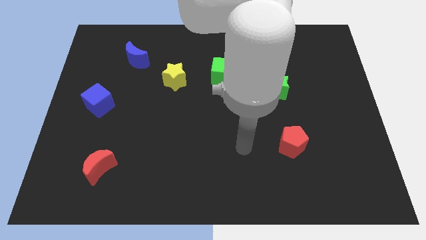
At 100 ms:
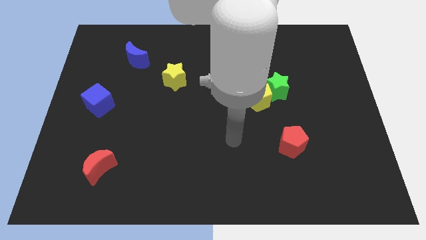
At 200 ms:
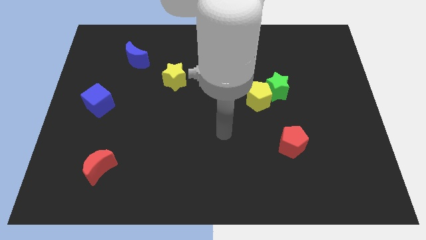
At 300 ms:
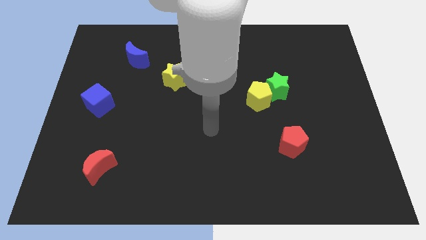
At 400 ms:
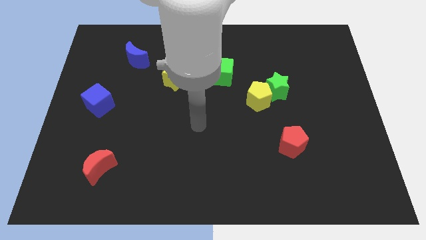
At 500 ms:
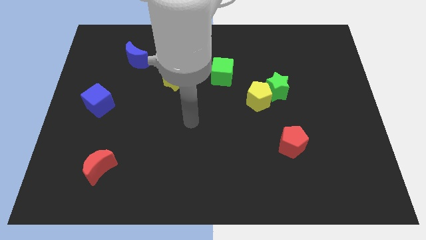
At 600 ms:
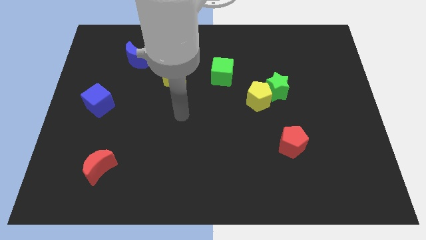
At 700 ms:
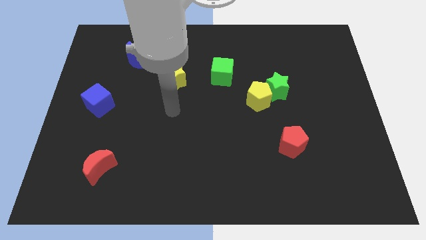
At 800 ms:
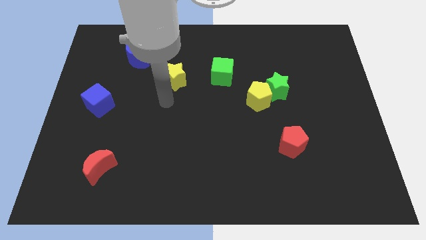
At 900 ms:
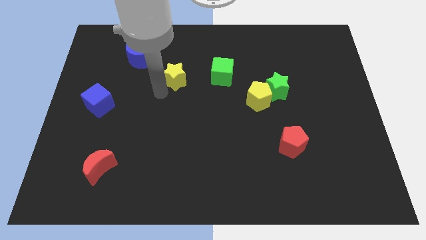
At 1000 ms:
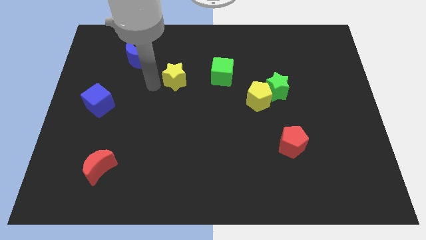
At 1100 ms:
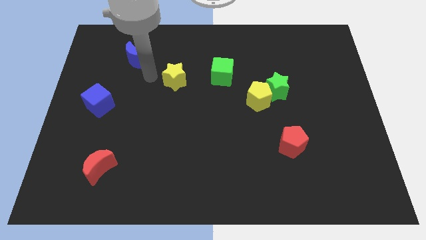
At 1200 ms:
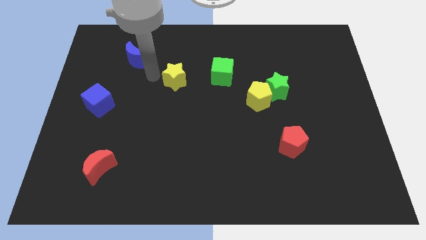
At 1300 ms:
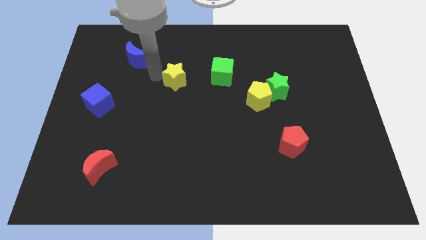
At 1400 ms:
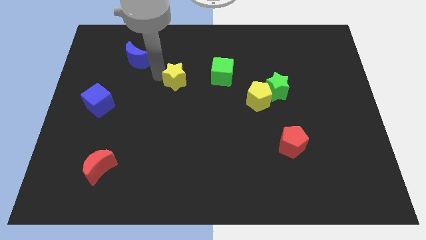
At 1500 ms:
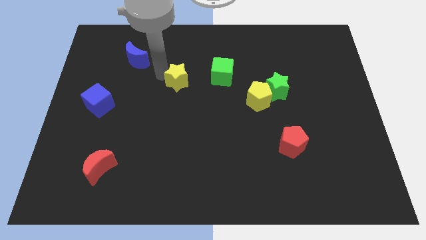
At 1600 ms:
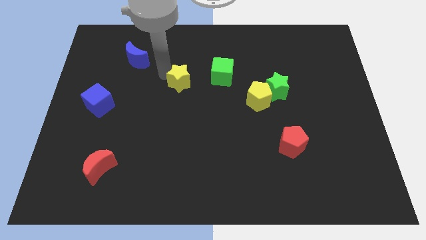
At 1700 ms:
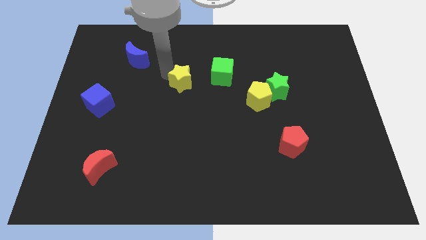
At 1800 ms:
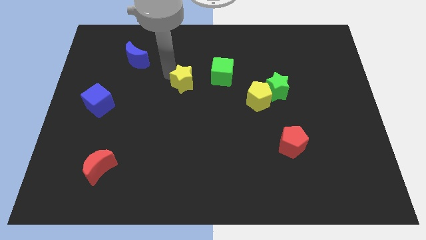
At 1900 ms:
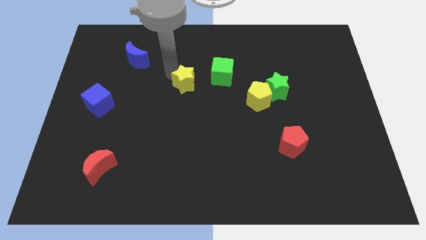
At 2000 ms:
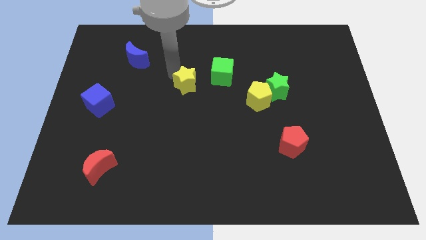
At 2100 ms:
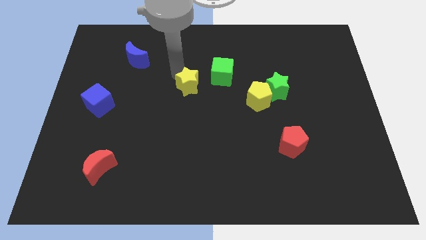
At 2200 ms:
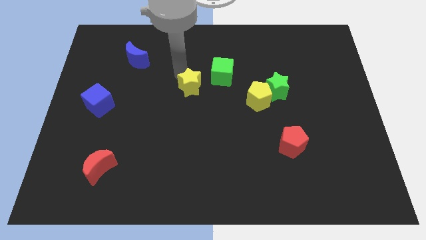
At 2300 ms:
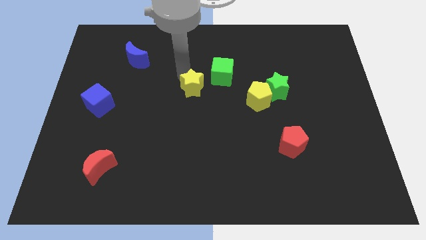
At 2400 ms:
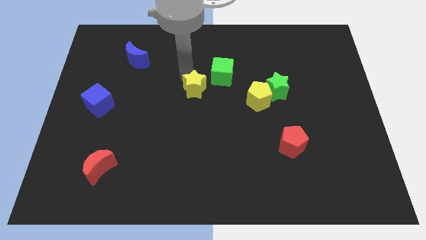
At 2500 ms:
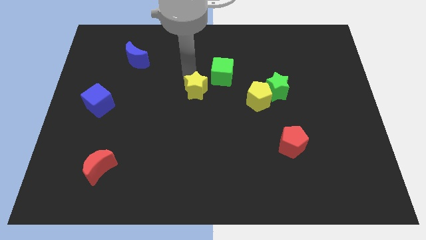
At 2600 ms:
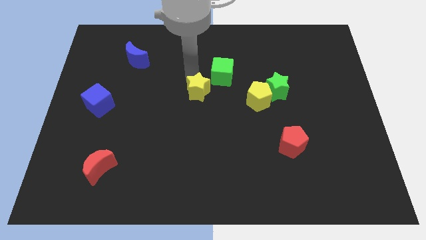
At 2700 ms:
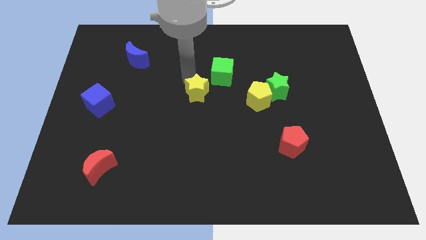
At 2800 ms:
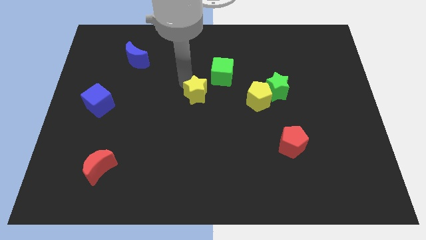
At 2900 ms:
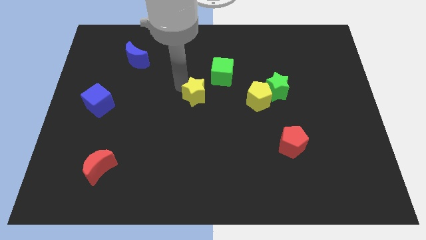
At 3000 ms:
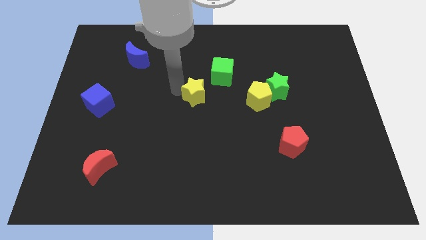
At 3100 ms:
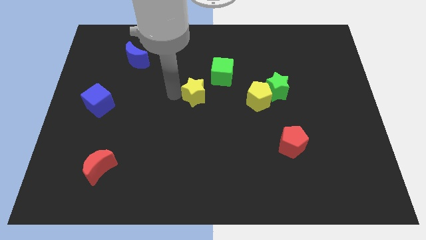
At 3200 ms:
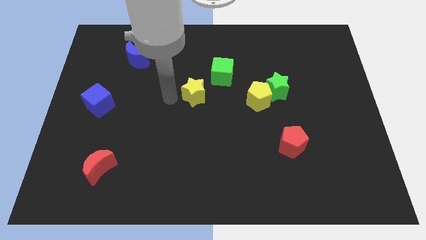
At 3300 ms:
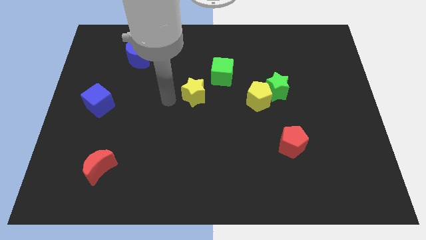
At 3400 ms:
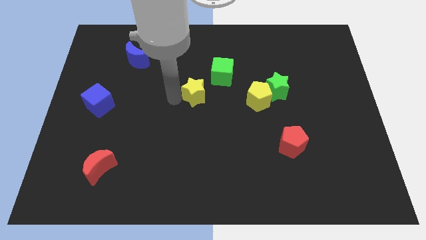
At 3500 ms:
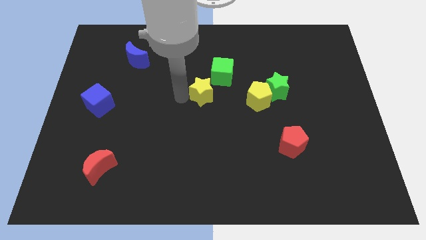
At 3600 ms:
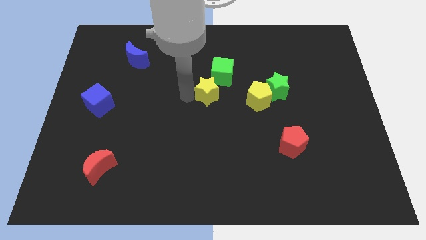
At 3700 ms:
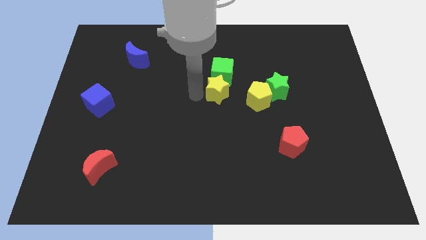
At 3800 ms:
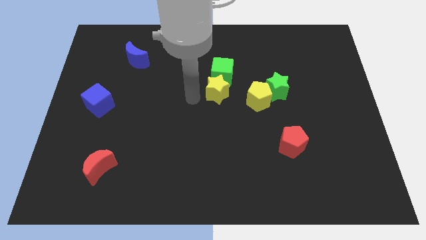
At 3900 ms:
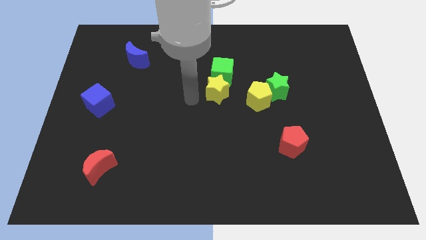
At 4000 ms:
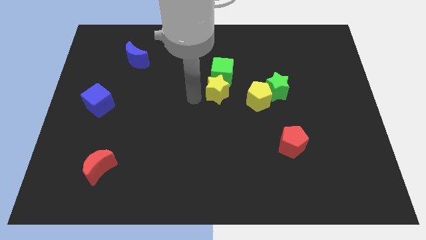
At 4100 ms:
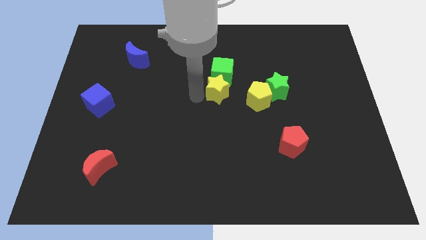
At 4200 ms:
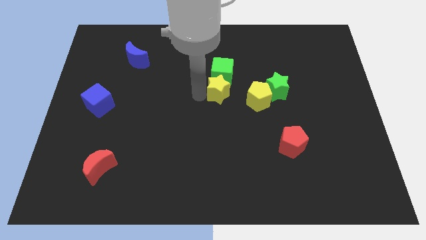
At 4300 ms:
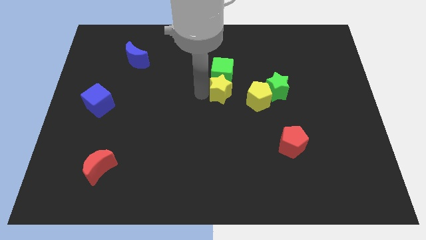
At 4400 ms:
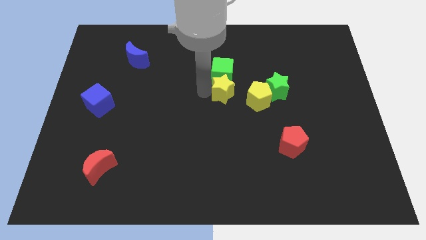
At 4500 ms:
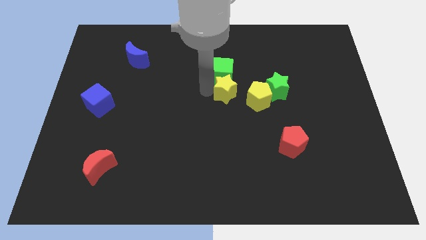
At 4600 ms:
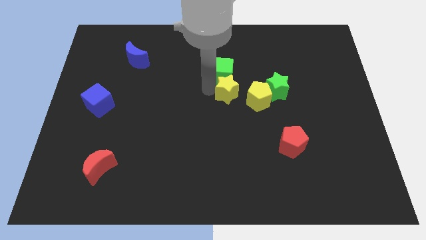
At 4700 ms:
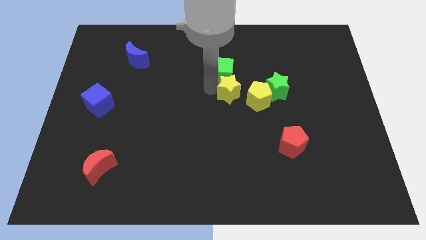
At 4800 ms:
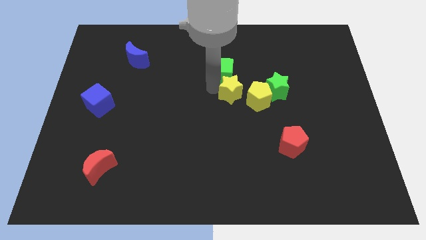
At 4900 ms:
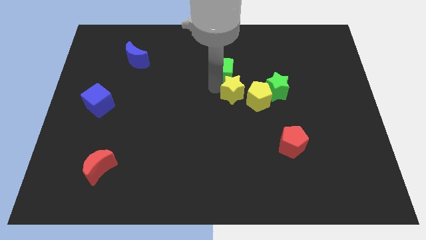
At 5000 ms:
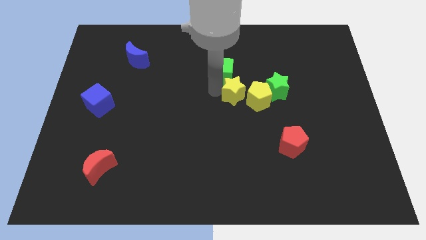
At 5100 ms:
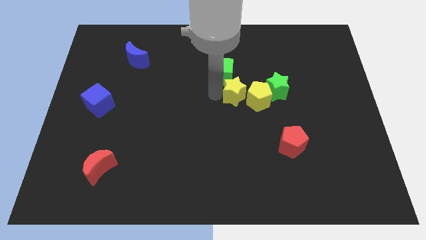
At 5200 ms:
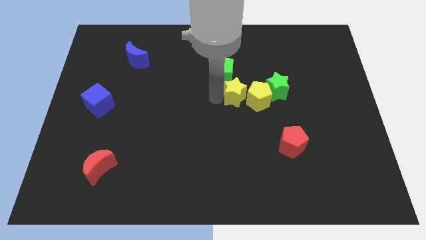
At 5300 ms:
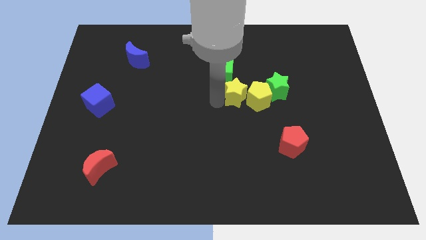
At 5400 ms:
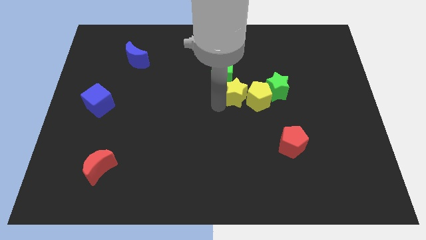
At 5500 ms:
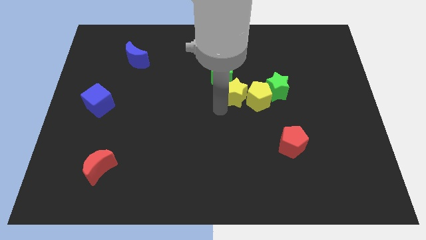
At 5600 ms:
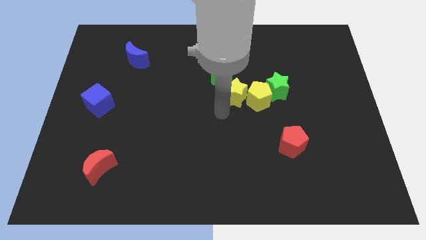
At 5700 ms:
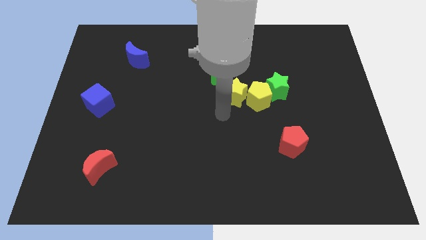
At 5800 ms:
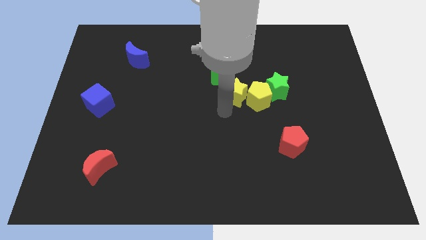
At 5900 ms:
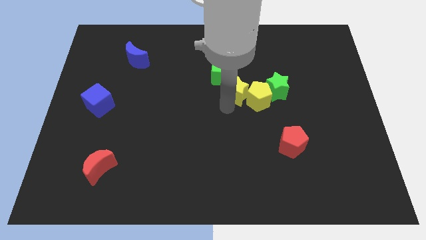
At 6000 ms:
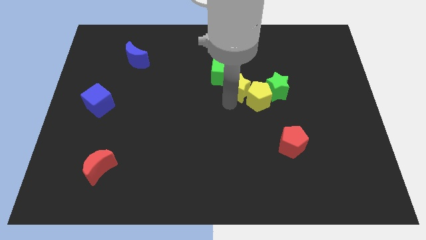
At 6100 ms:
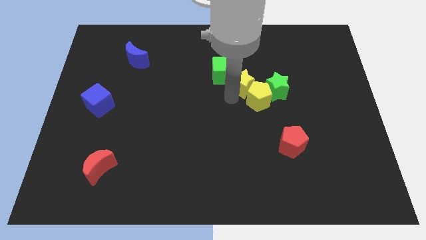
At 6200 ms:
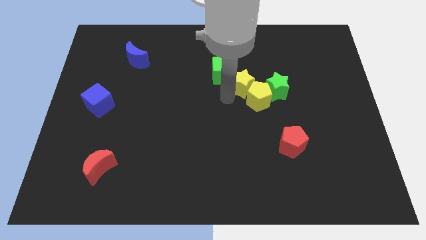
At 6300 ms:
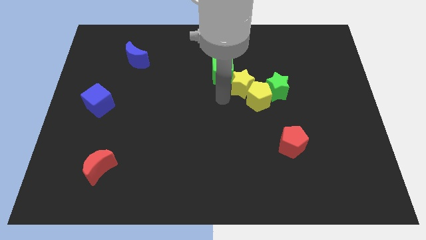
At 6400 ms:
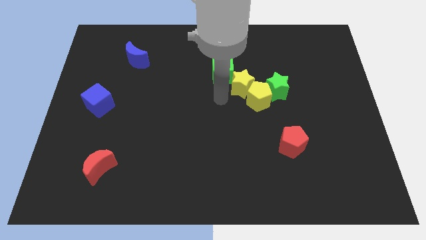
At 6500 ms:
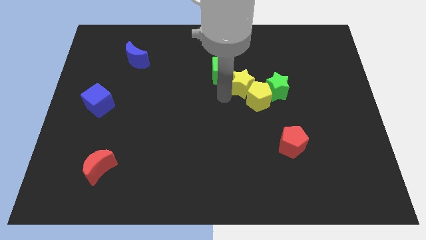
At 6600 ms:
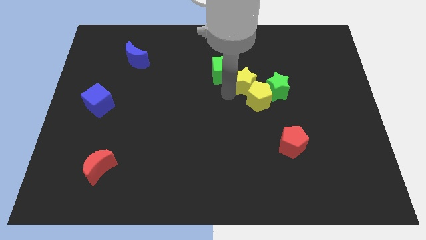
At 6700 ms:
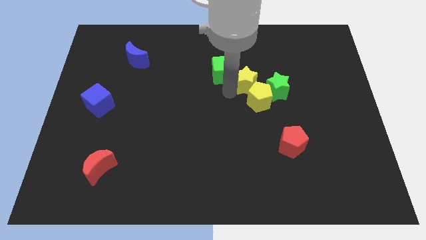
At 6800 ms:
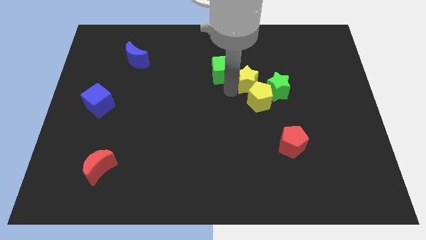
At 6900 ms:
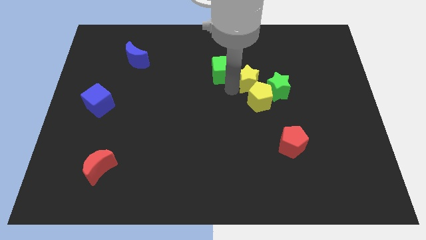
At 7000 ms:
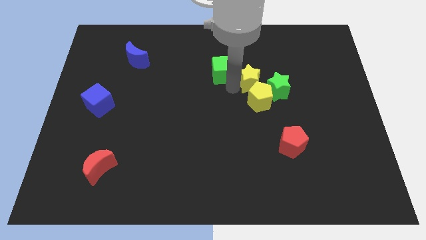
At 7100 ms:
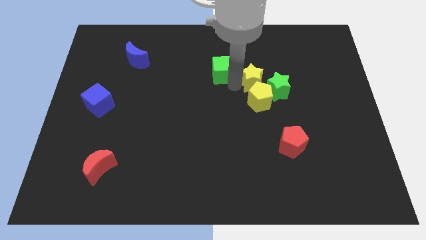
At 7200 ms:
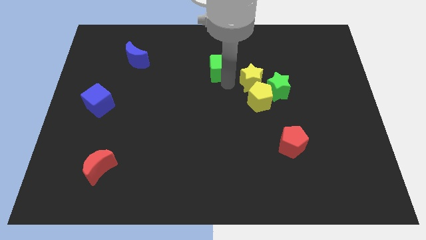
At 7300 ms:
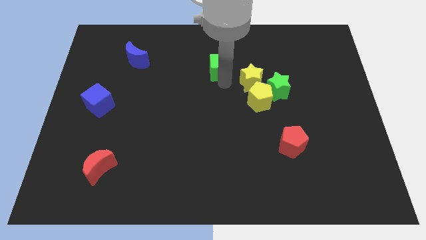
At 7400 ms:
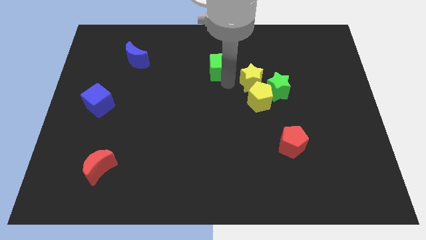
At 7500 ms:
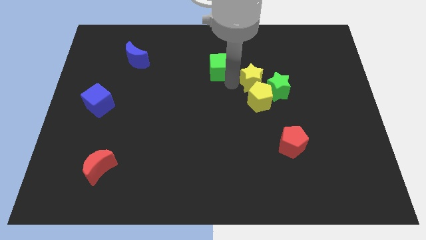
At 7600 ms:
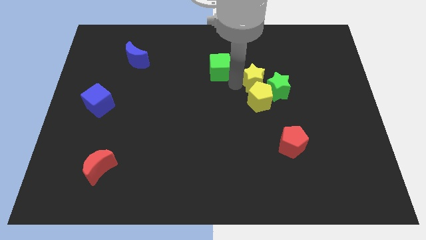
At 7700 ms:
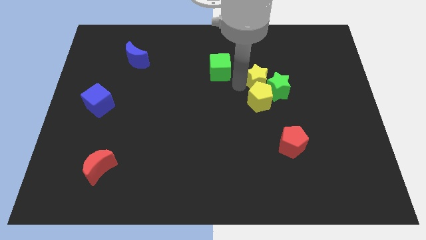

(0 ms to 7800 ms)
push the yellow star right

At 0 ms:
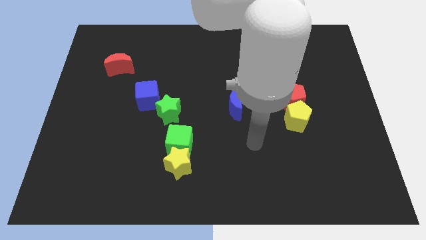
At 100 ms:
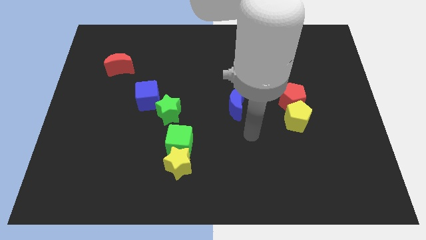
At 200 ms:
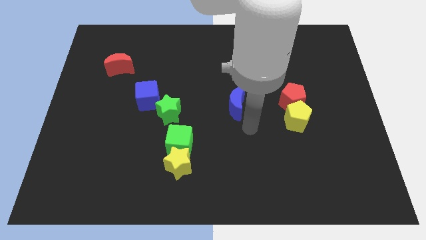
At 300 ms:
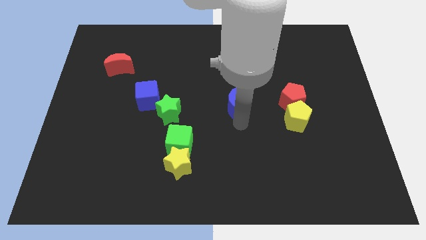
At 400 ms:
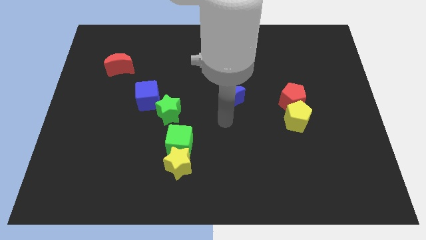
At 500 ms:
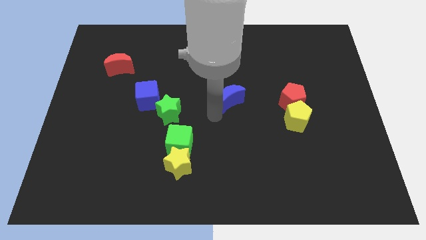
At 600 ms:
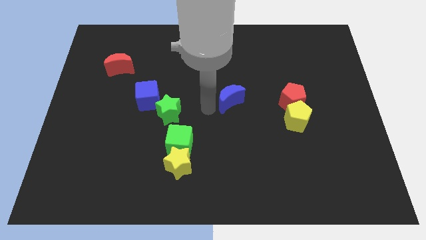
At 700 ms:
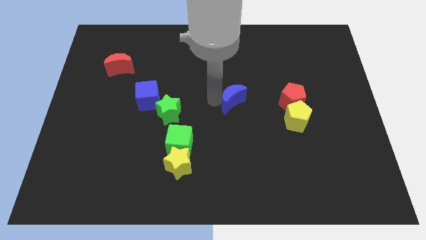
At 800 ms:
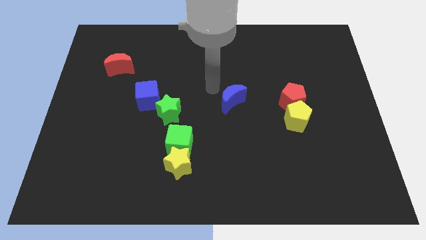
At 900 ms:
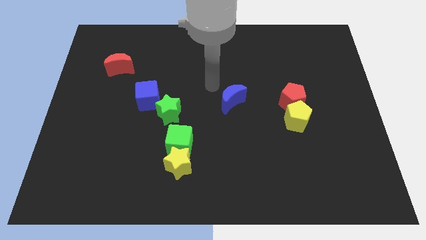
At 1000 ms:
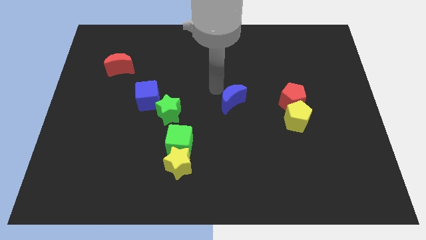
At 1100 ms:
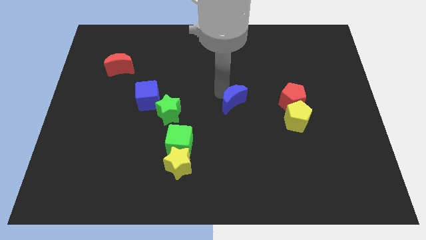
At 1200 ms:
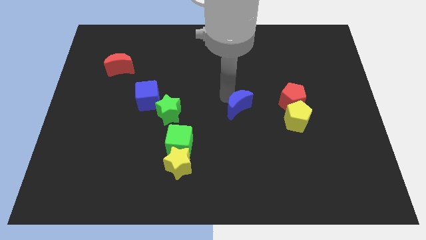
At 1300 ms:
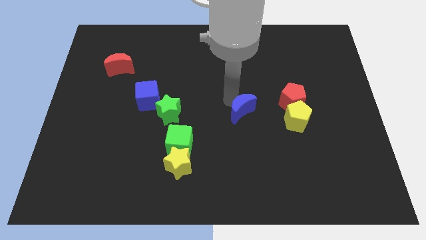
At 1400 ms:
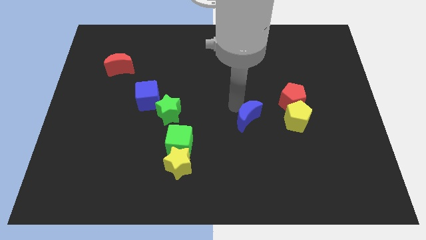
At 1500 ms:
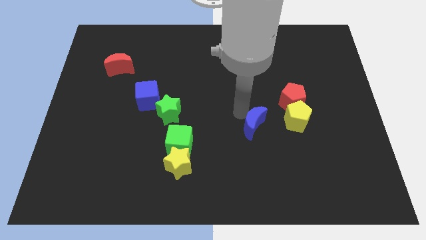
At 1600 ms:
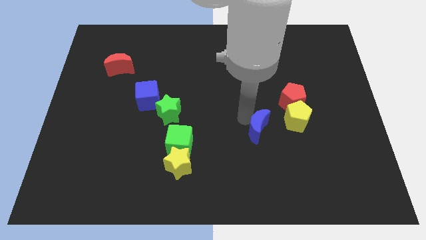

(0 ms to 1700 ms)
move the blue moon diagonally downwards and right somewhat
